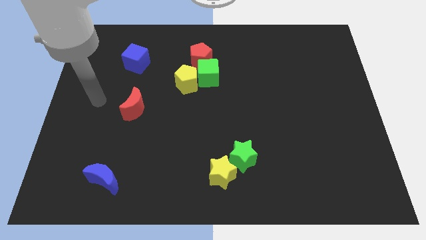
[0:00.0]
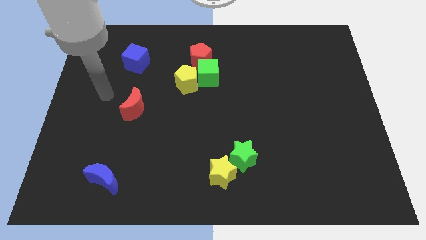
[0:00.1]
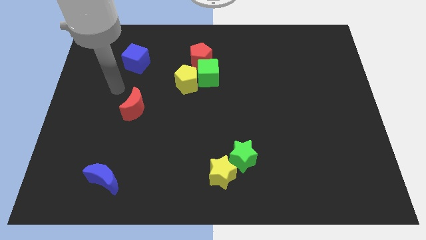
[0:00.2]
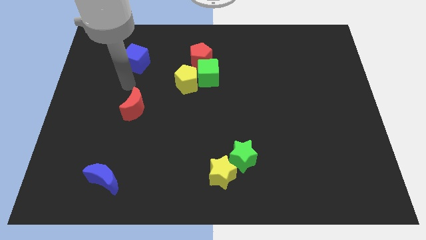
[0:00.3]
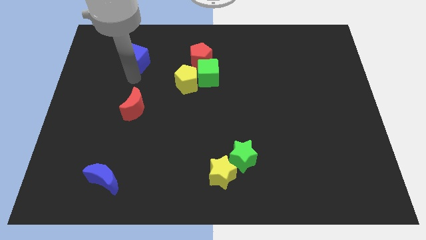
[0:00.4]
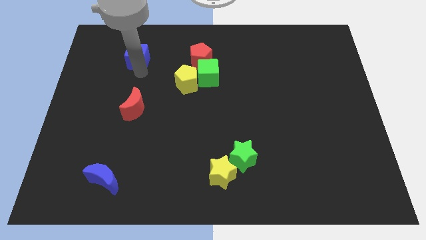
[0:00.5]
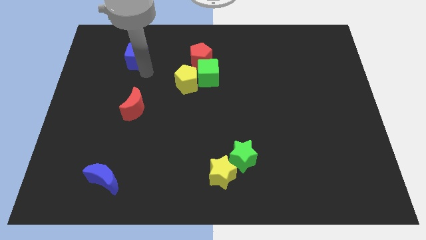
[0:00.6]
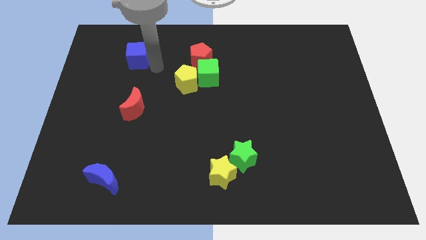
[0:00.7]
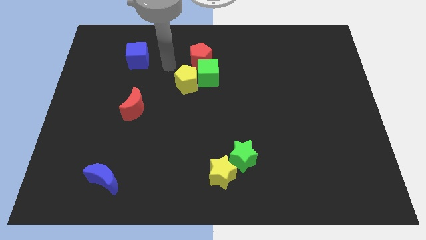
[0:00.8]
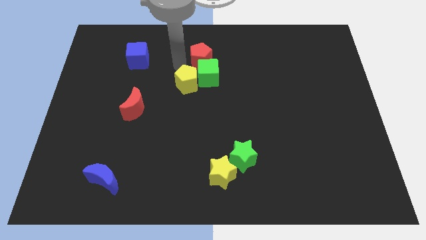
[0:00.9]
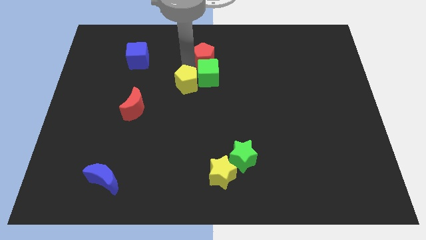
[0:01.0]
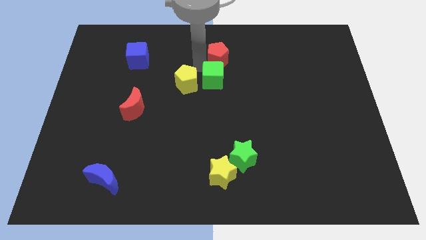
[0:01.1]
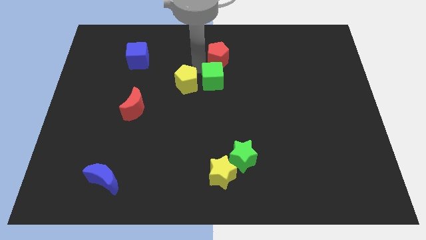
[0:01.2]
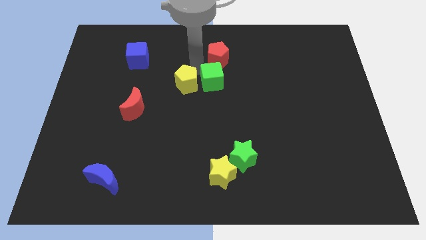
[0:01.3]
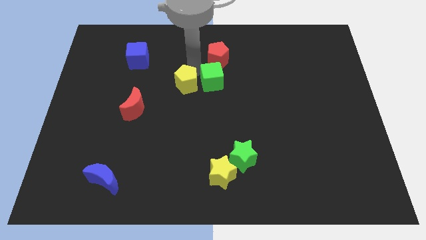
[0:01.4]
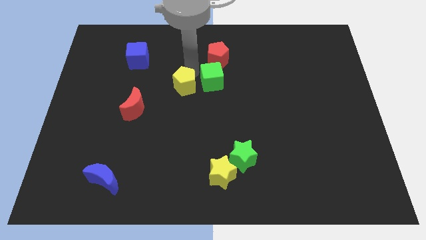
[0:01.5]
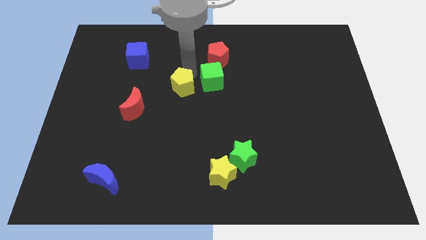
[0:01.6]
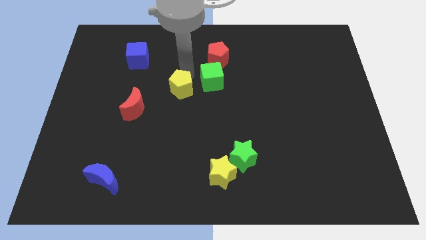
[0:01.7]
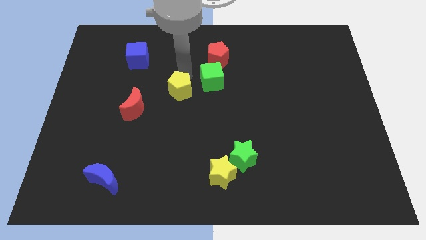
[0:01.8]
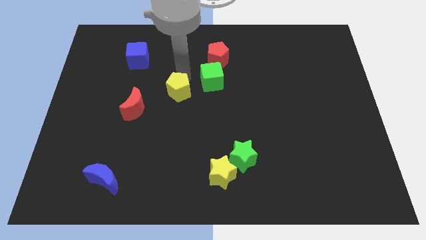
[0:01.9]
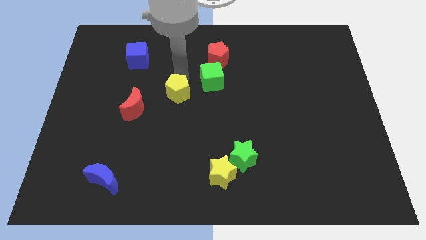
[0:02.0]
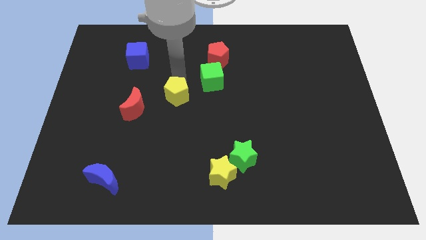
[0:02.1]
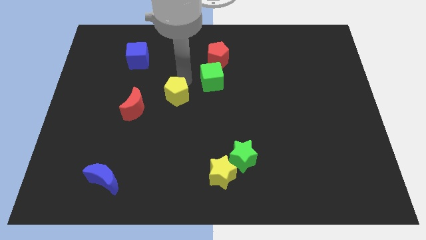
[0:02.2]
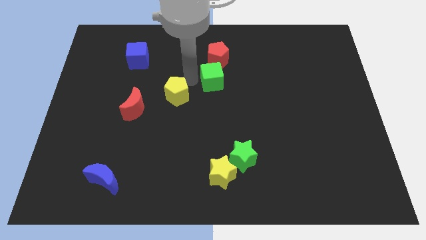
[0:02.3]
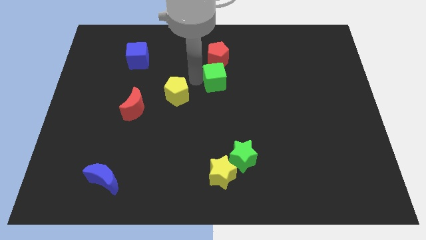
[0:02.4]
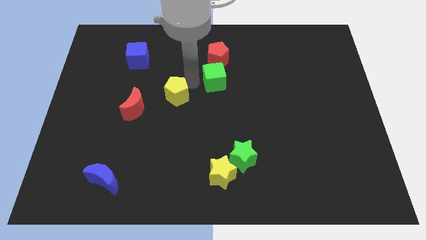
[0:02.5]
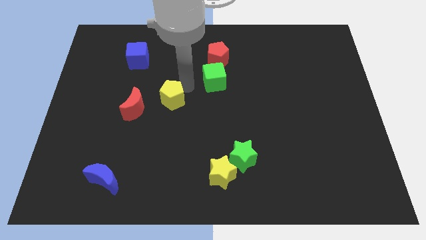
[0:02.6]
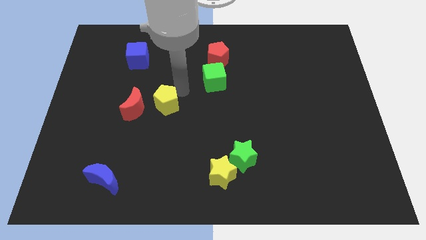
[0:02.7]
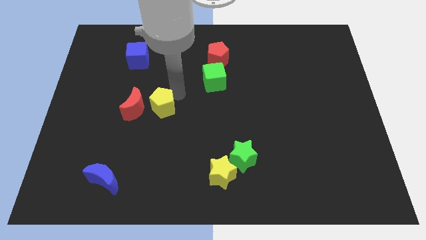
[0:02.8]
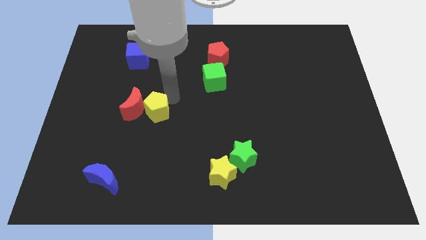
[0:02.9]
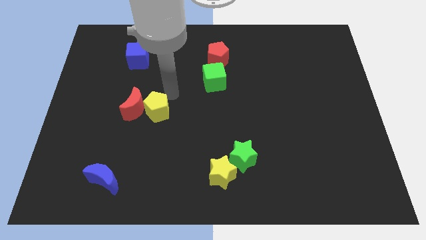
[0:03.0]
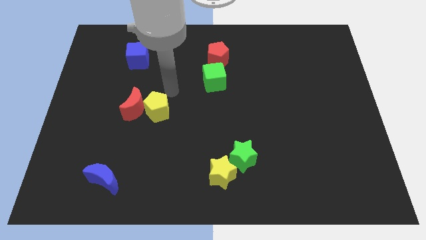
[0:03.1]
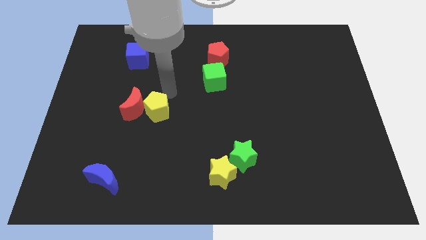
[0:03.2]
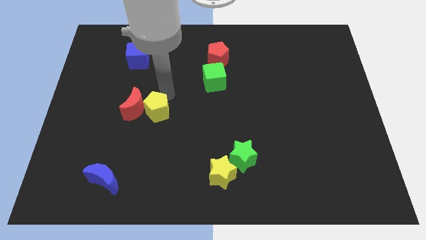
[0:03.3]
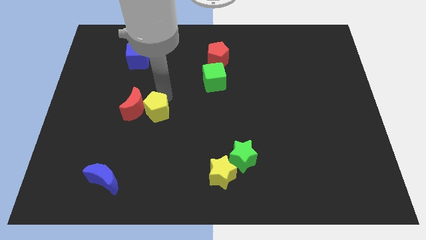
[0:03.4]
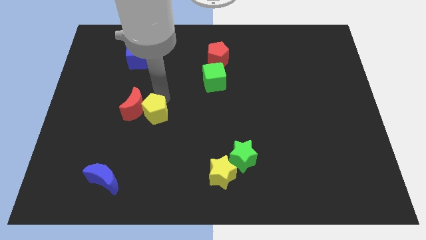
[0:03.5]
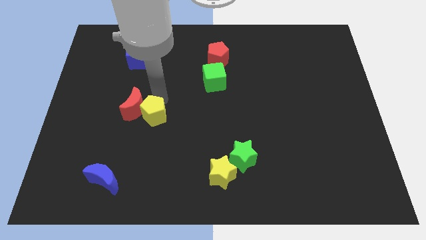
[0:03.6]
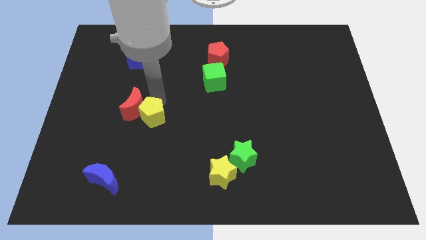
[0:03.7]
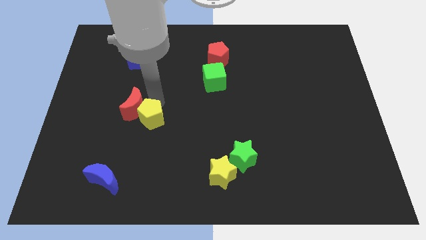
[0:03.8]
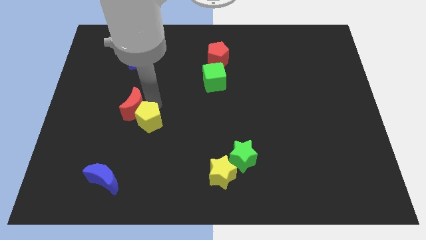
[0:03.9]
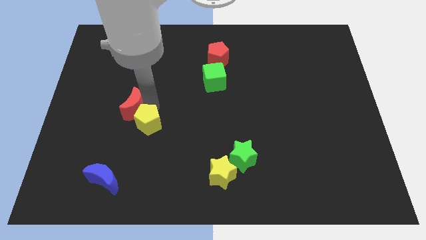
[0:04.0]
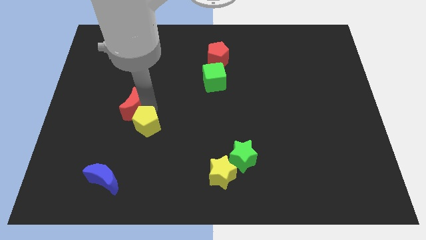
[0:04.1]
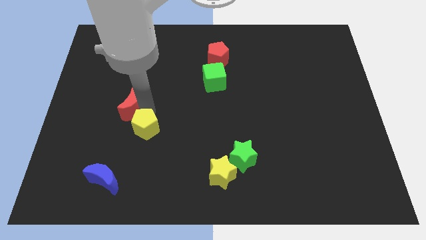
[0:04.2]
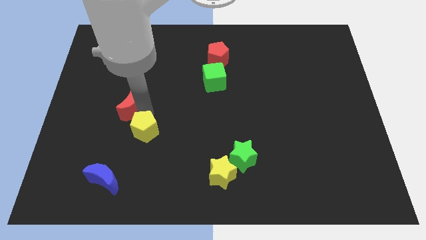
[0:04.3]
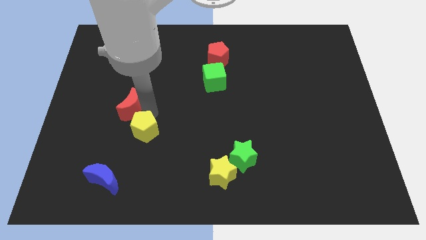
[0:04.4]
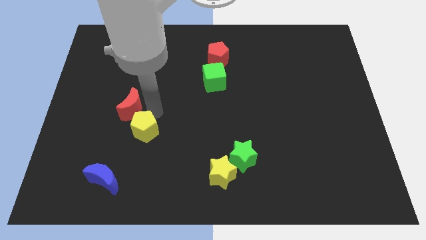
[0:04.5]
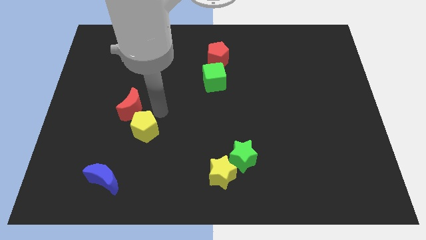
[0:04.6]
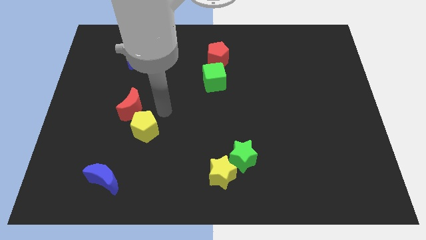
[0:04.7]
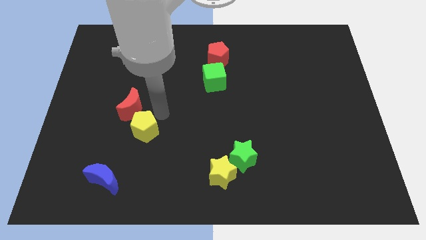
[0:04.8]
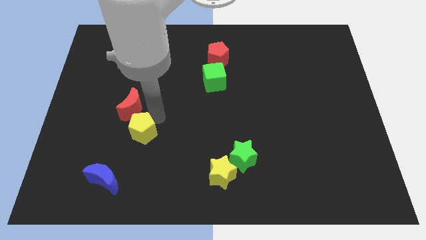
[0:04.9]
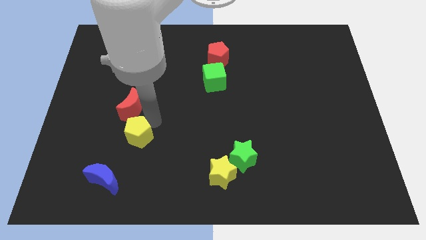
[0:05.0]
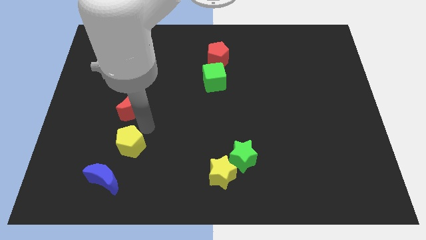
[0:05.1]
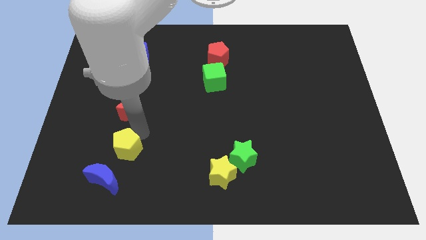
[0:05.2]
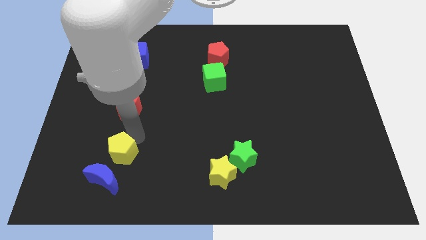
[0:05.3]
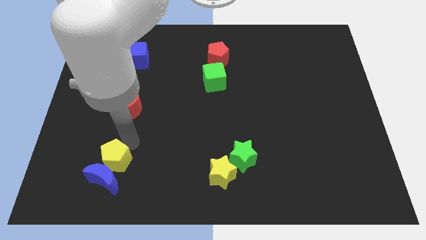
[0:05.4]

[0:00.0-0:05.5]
push the yellow pentagon close to the blue moon

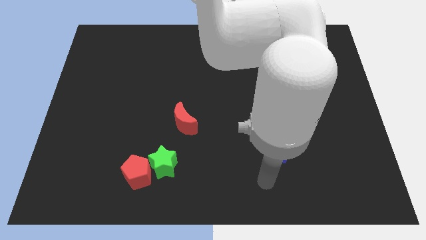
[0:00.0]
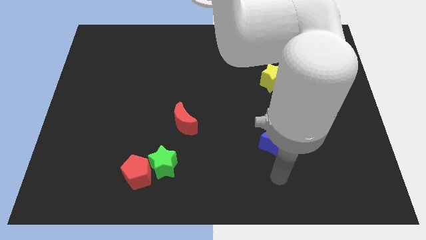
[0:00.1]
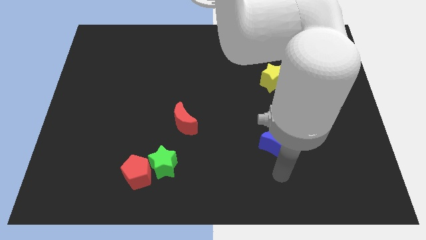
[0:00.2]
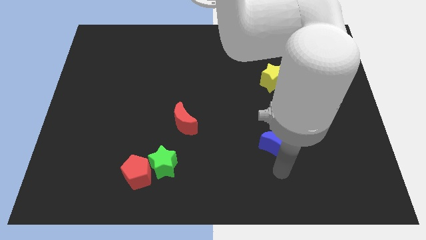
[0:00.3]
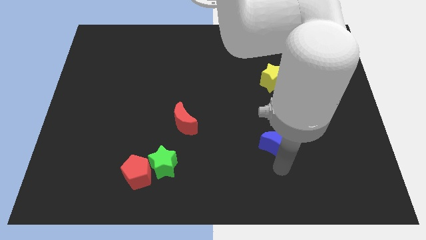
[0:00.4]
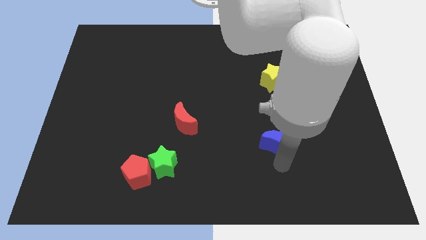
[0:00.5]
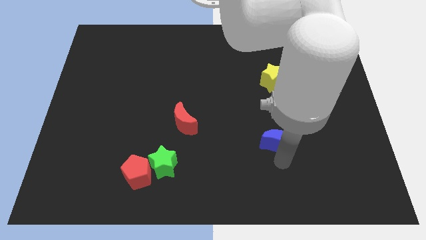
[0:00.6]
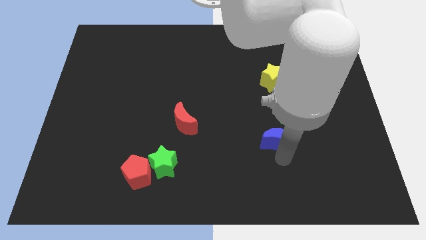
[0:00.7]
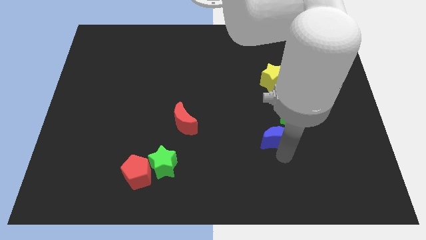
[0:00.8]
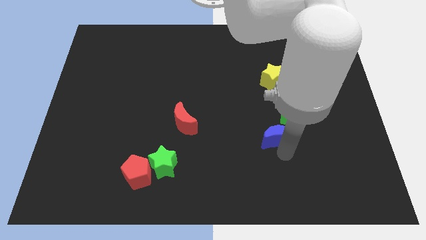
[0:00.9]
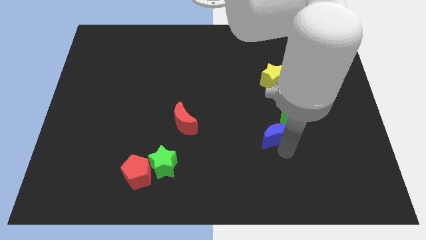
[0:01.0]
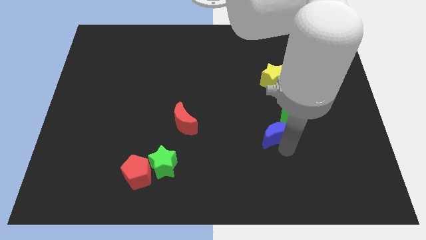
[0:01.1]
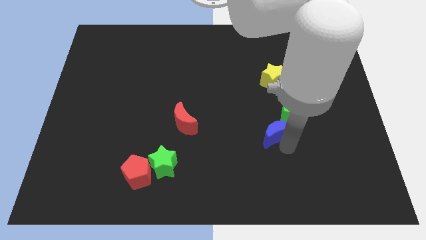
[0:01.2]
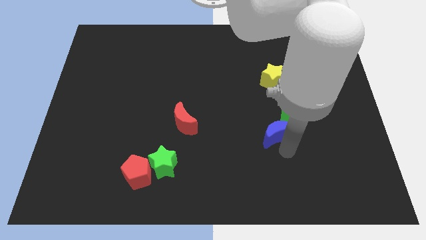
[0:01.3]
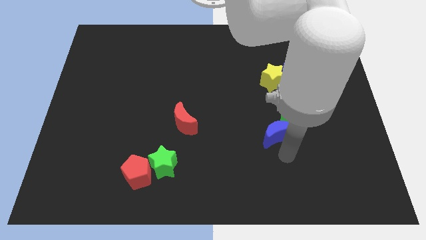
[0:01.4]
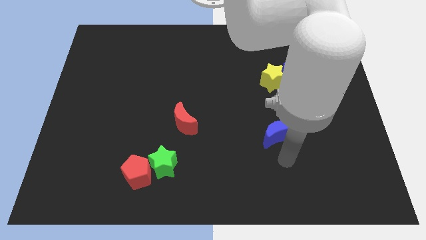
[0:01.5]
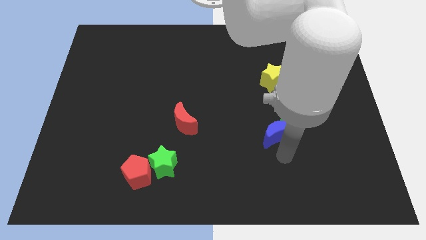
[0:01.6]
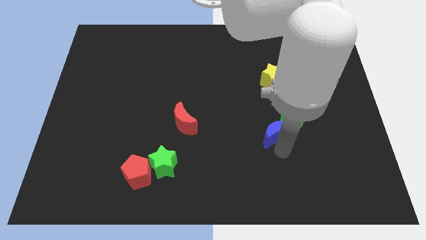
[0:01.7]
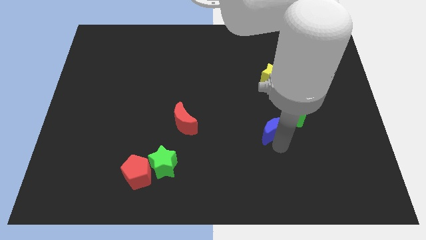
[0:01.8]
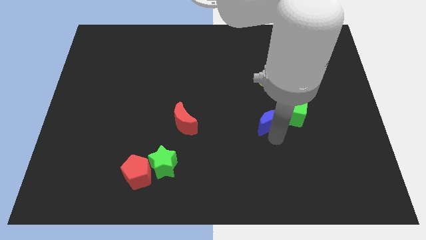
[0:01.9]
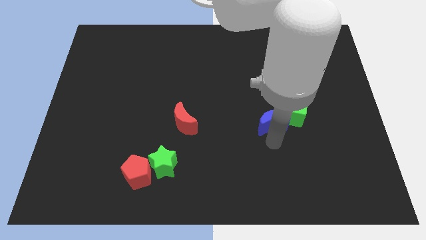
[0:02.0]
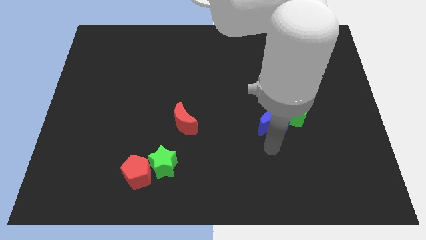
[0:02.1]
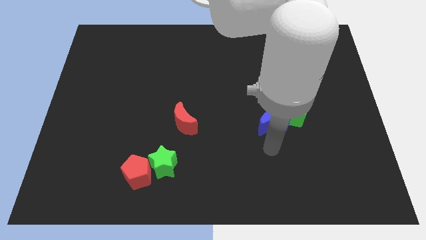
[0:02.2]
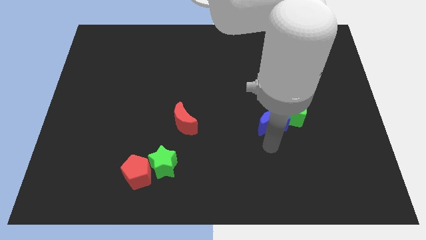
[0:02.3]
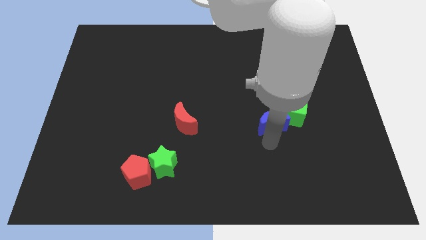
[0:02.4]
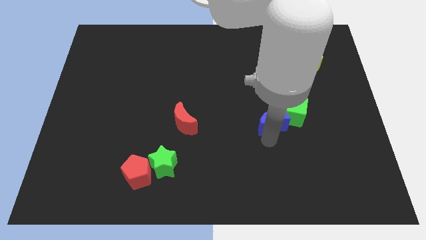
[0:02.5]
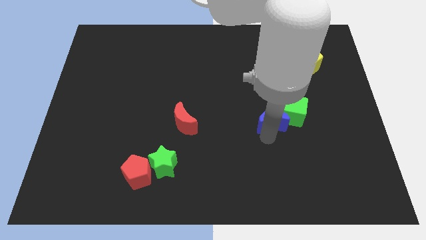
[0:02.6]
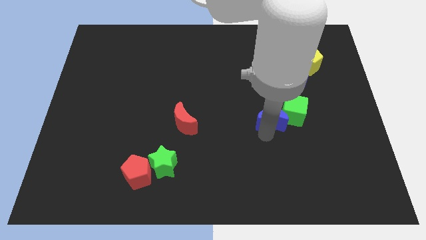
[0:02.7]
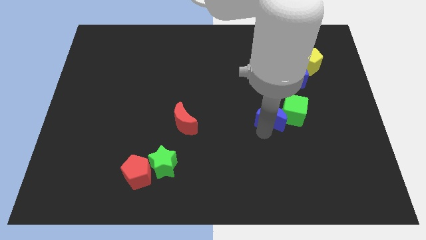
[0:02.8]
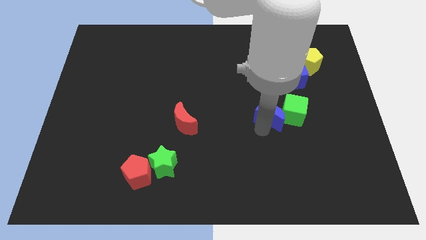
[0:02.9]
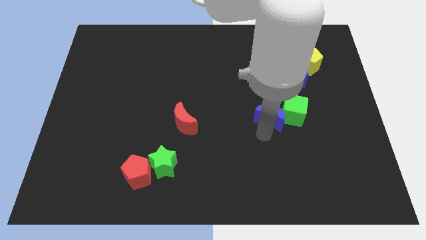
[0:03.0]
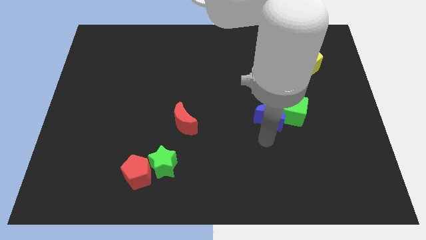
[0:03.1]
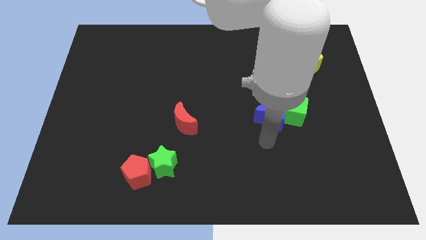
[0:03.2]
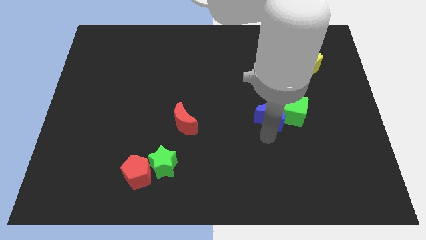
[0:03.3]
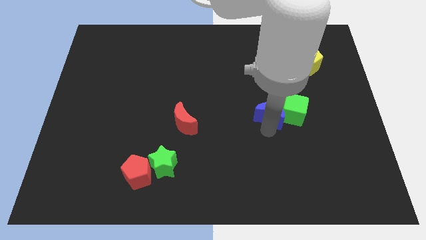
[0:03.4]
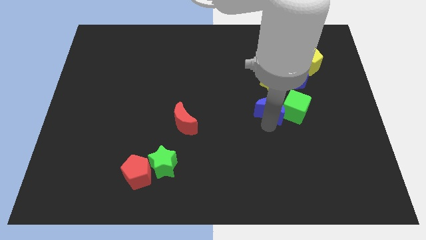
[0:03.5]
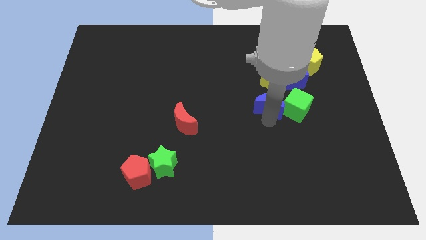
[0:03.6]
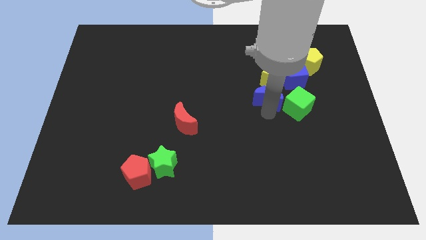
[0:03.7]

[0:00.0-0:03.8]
slide the blue moon close to the yellow star
